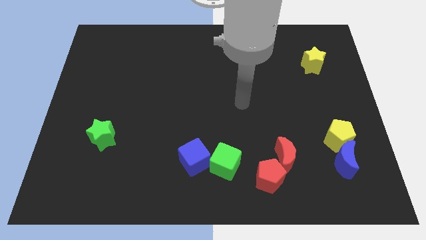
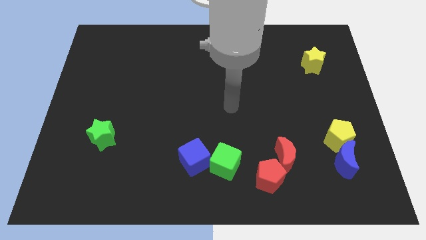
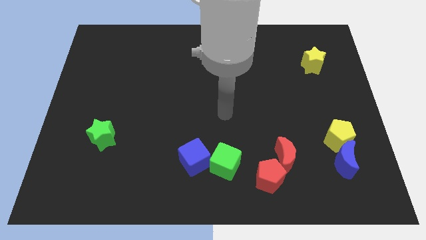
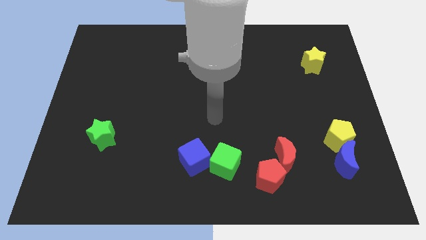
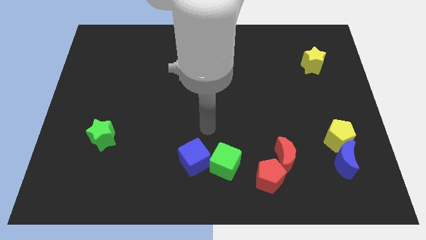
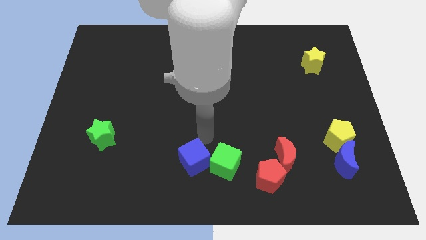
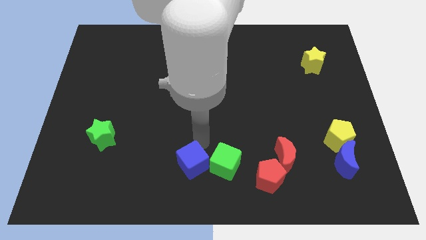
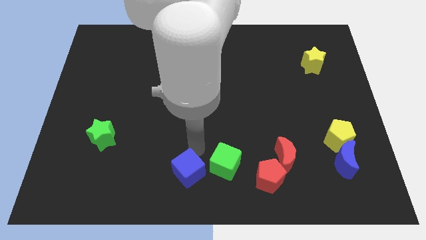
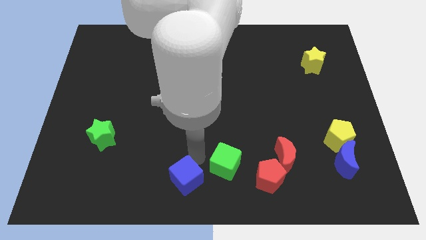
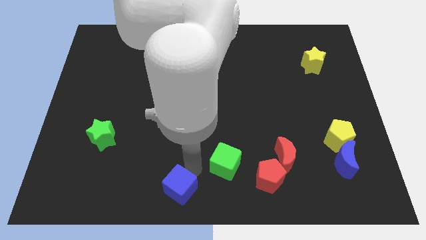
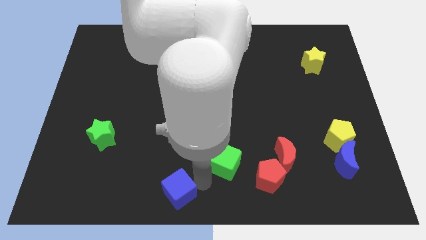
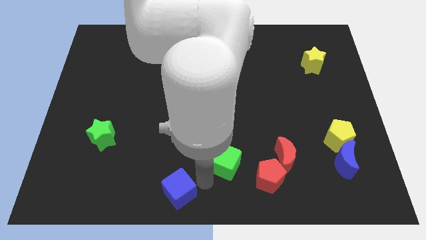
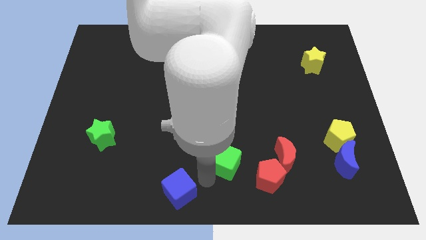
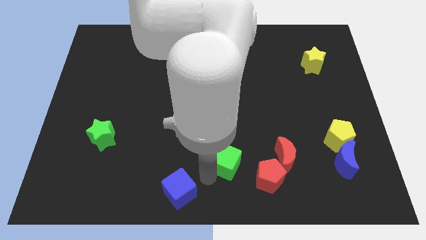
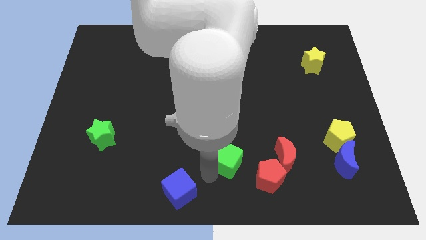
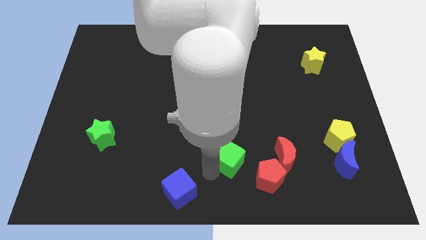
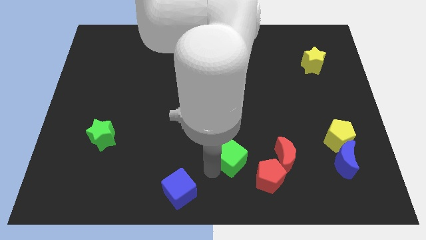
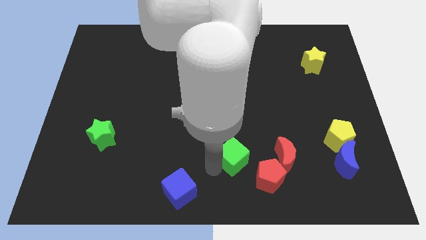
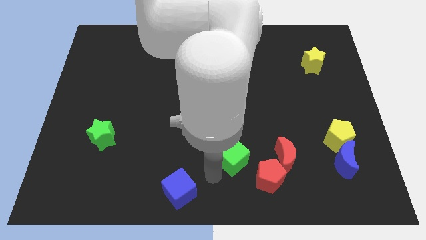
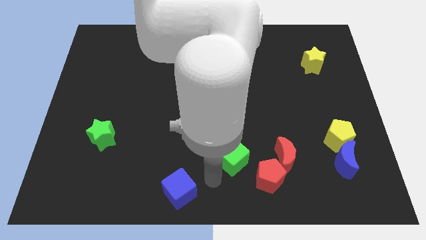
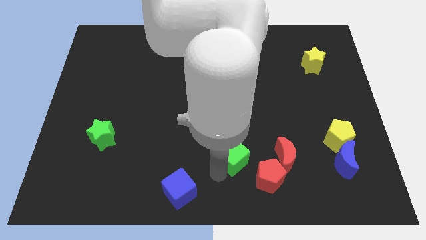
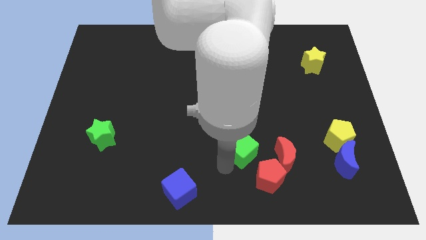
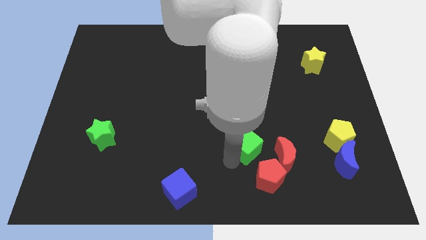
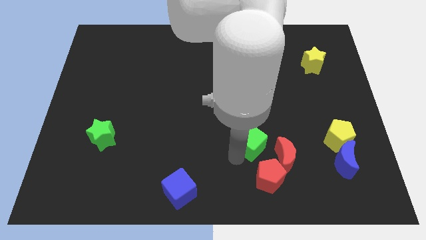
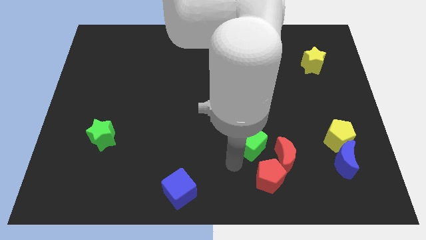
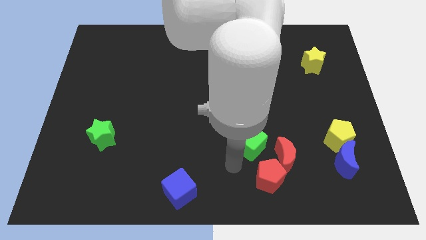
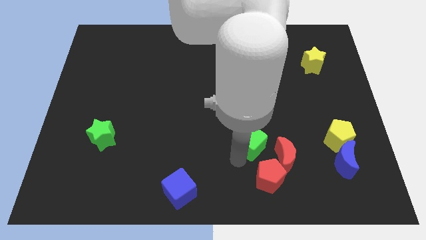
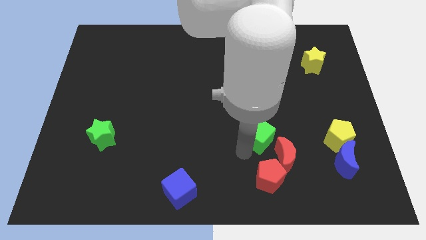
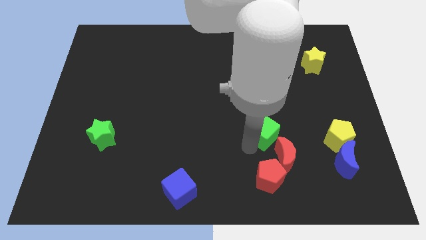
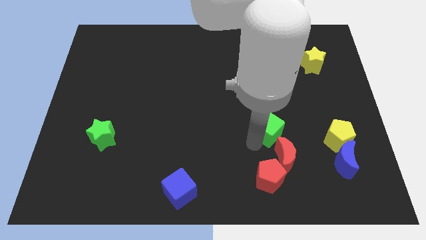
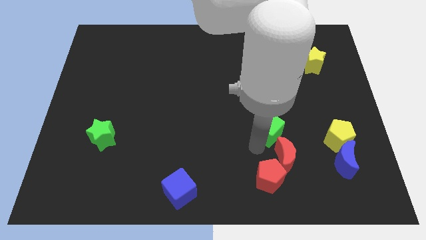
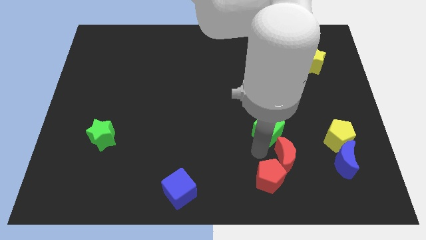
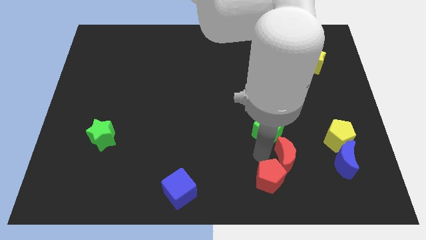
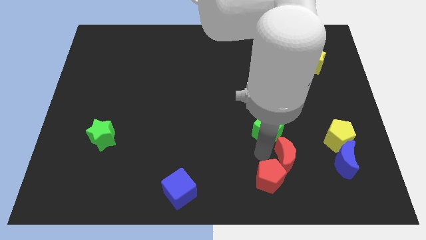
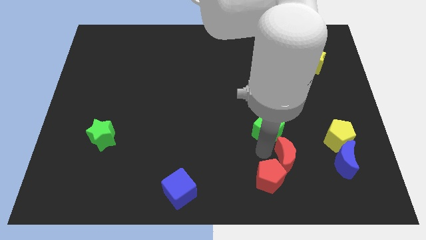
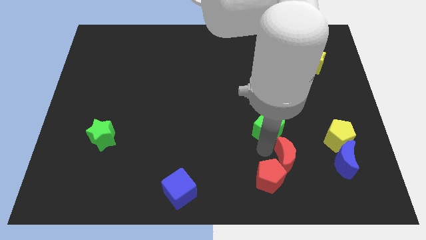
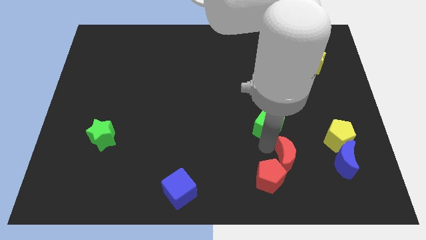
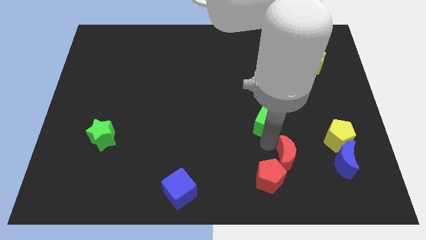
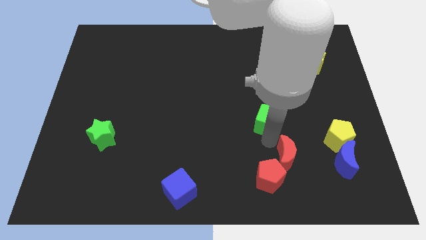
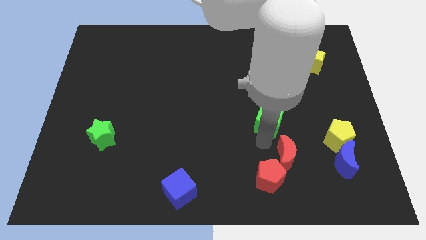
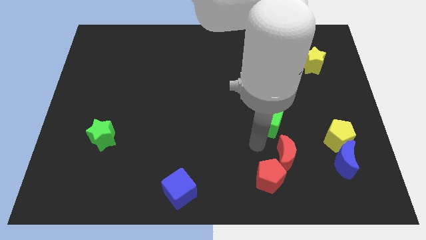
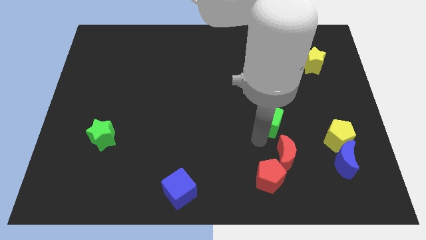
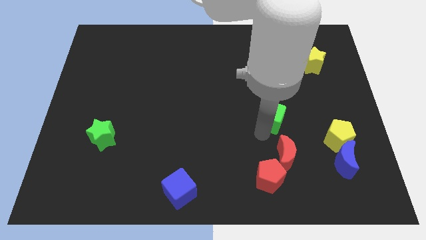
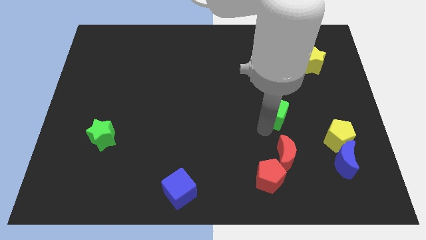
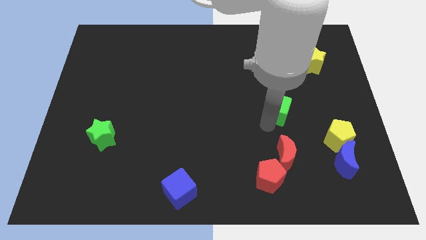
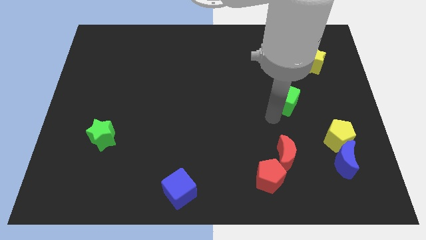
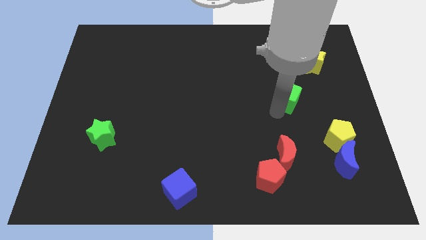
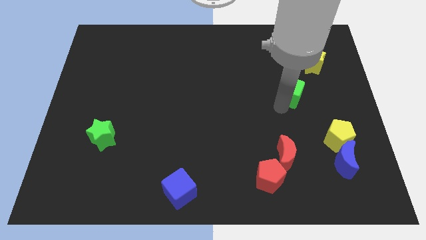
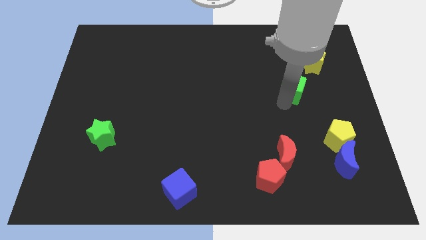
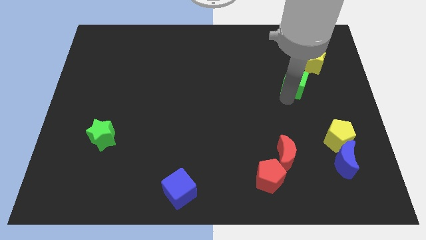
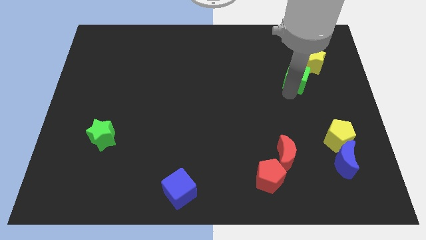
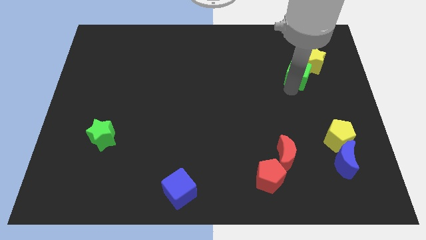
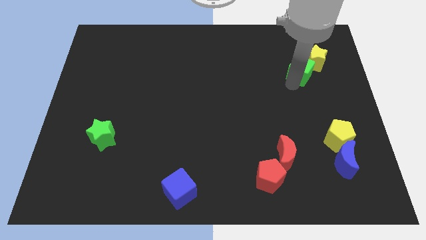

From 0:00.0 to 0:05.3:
push the green cube next to the yellow star

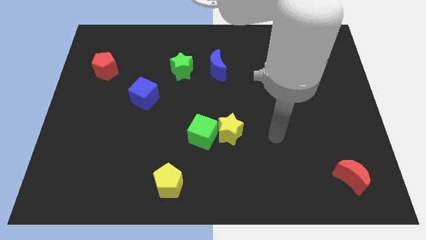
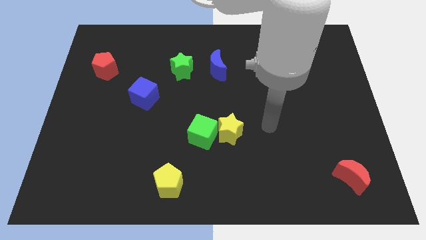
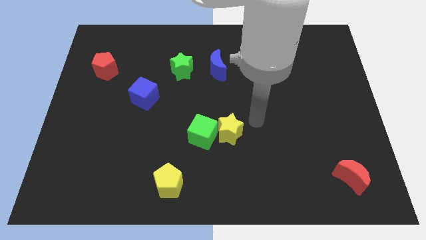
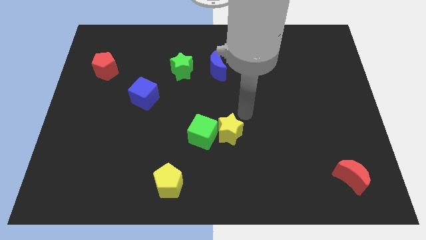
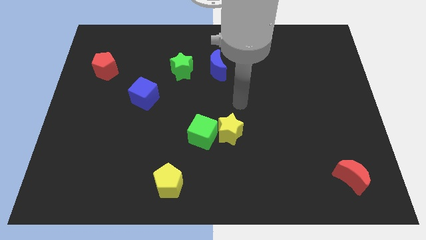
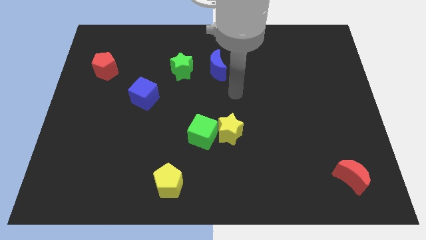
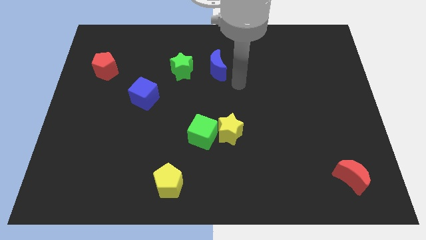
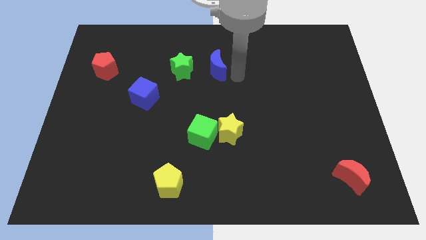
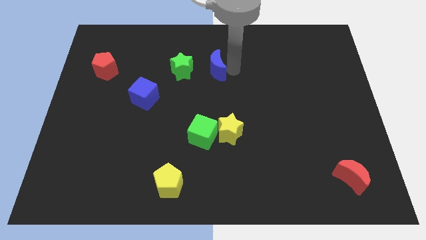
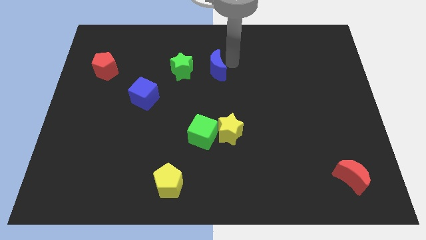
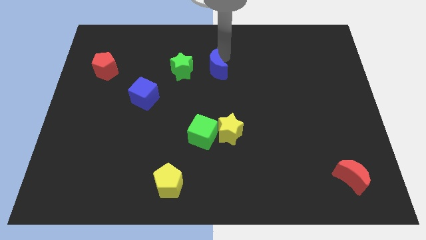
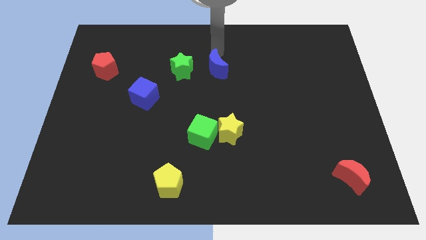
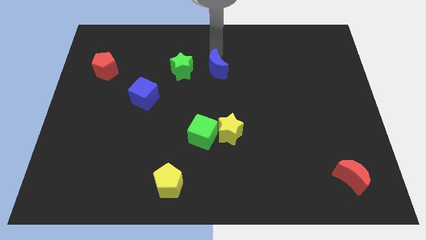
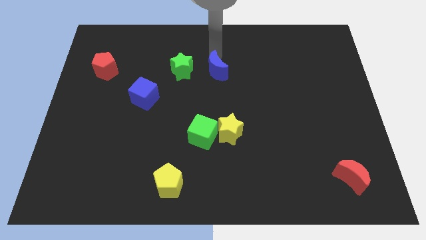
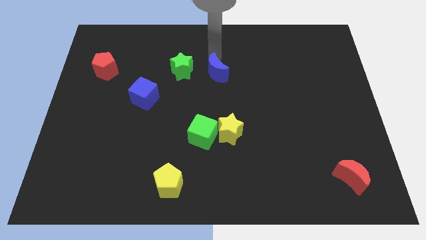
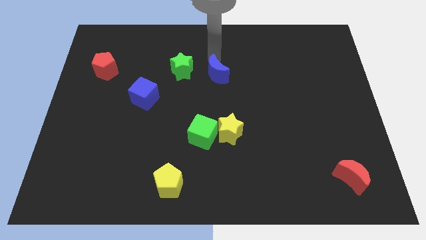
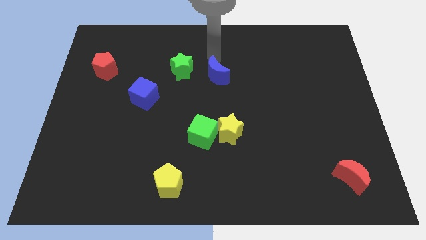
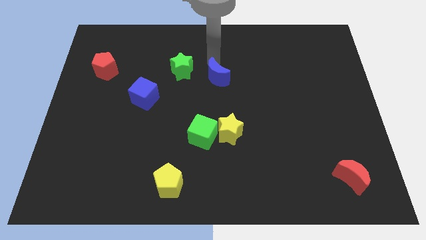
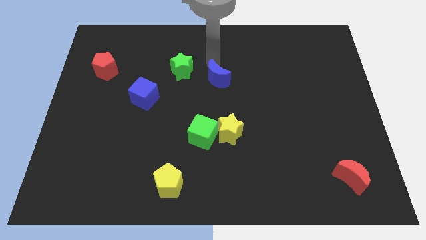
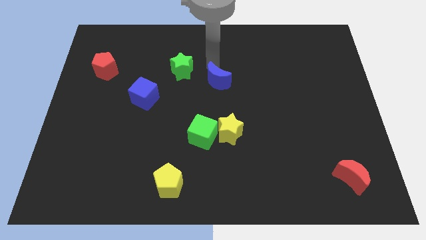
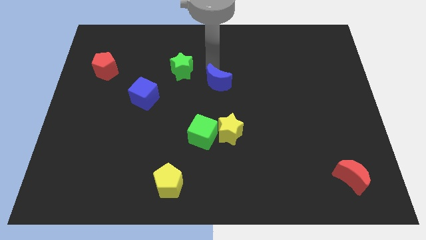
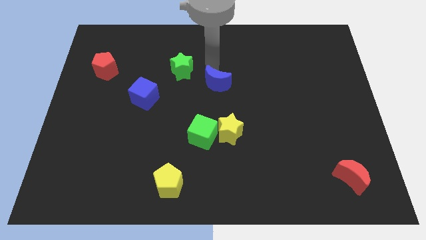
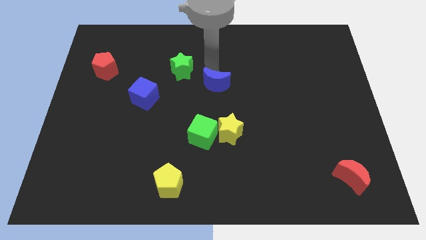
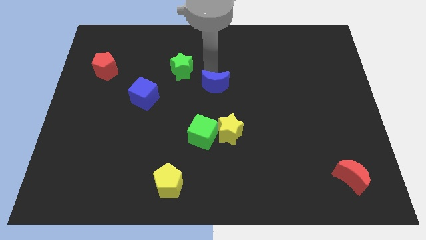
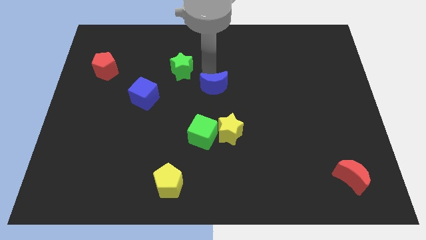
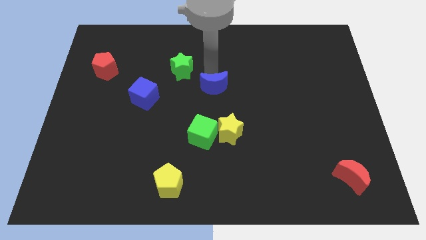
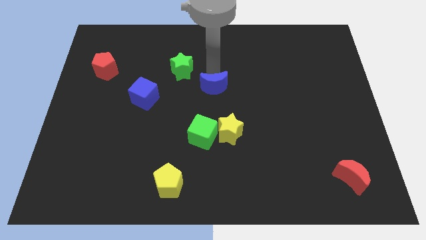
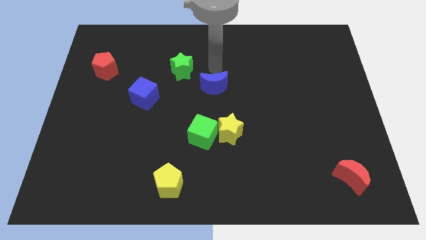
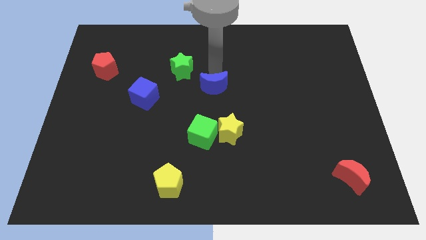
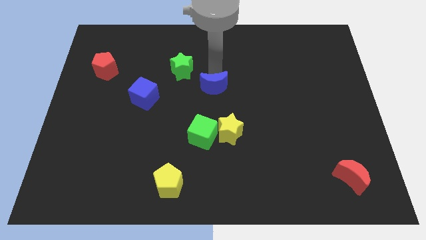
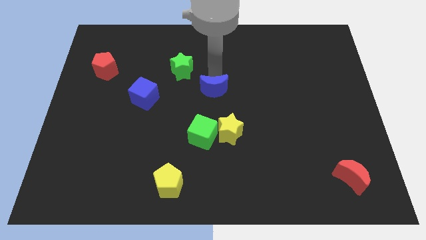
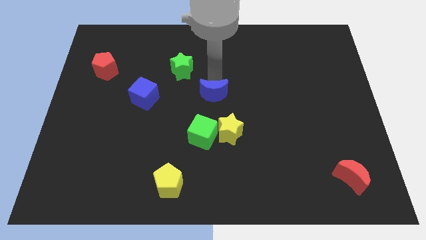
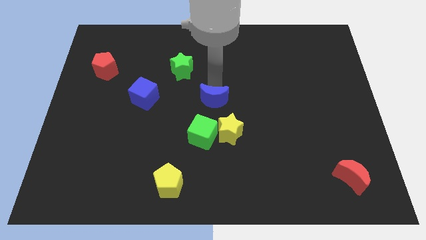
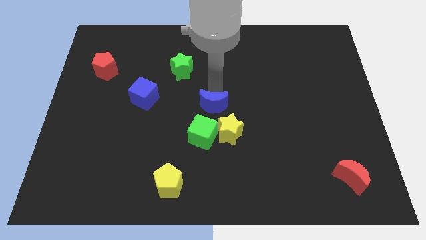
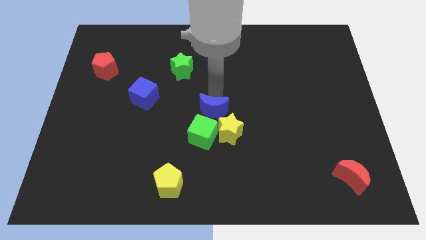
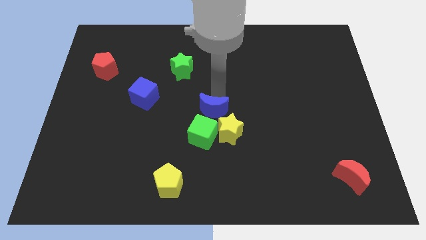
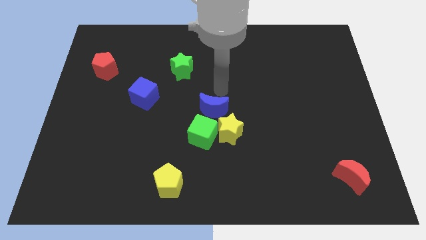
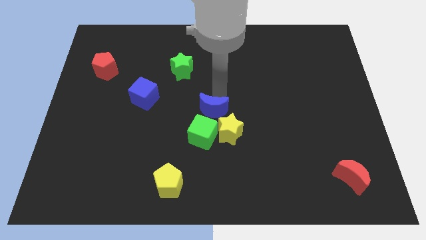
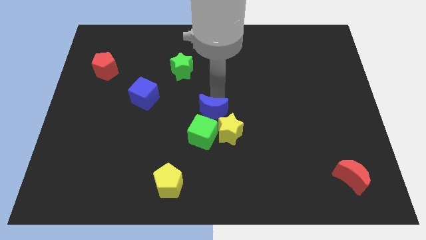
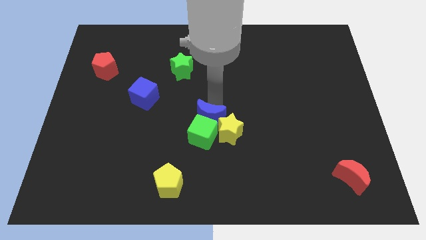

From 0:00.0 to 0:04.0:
move the blue moon close to the green cube
